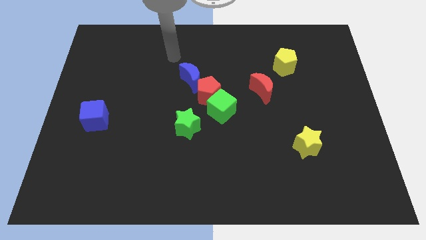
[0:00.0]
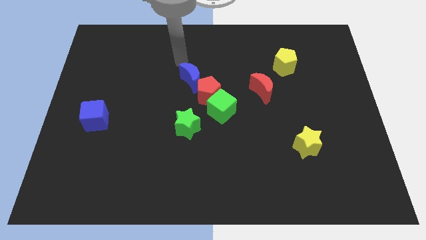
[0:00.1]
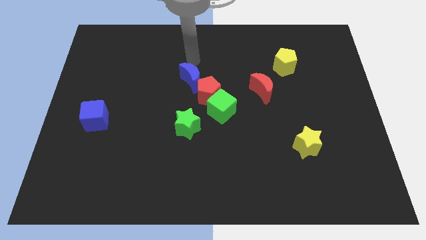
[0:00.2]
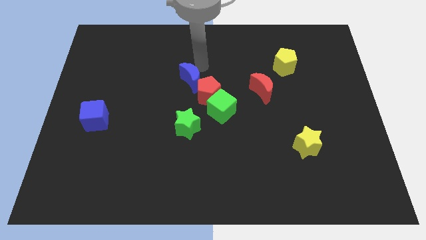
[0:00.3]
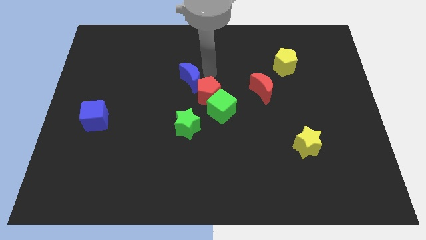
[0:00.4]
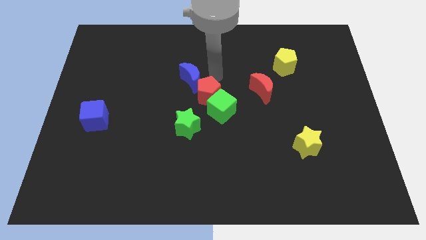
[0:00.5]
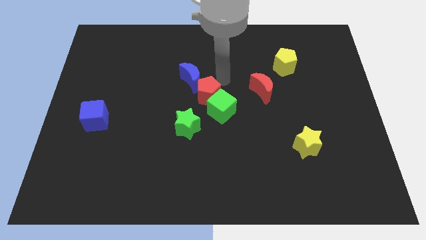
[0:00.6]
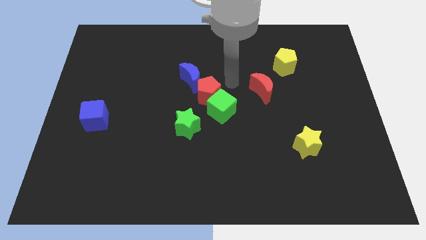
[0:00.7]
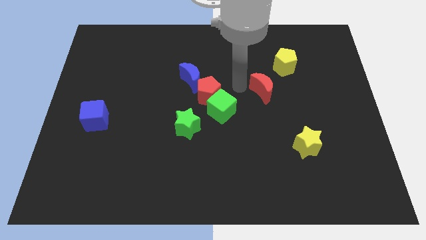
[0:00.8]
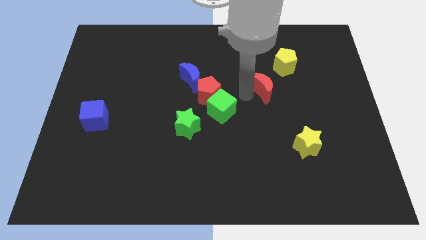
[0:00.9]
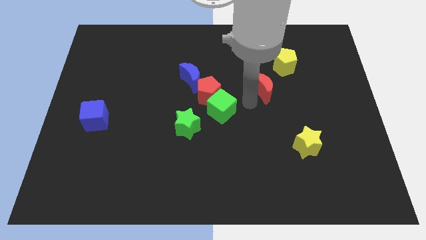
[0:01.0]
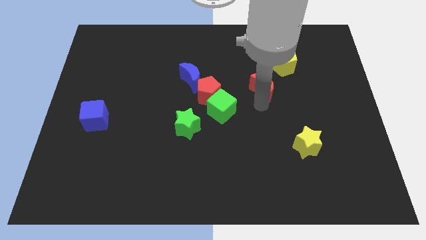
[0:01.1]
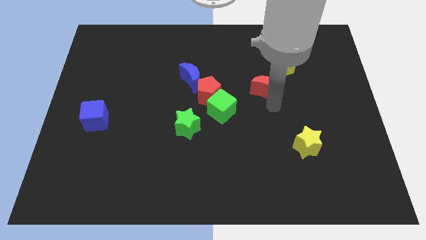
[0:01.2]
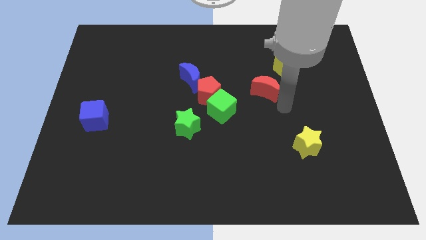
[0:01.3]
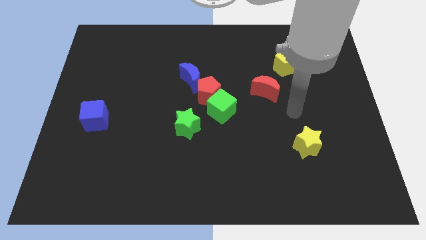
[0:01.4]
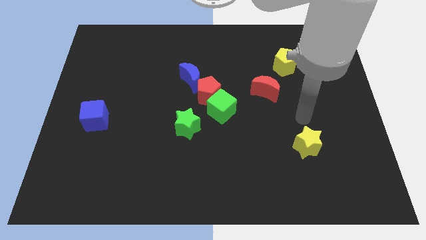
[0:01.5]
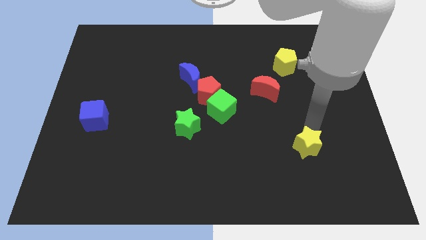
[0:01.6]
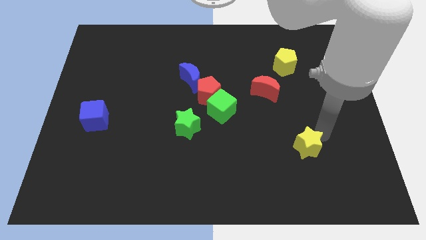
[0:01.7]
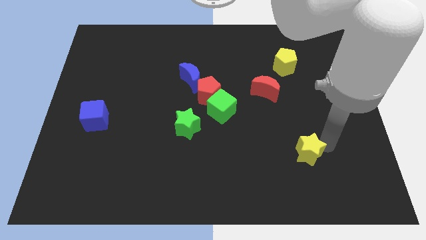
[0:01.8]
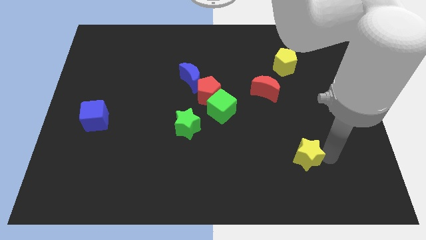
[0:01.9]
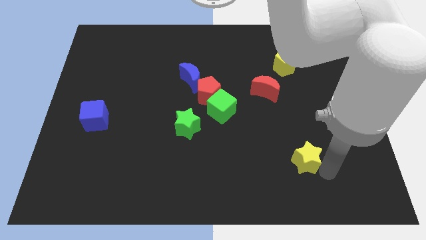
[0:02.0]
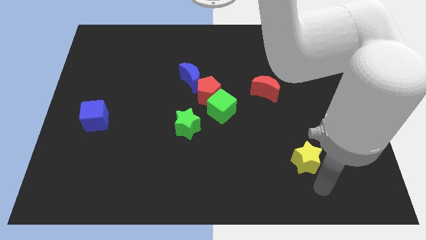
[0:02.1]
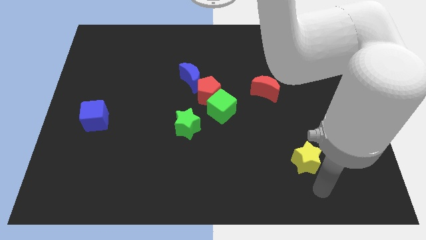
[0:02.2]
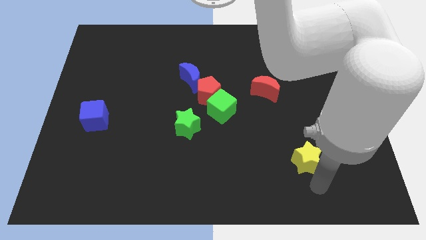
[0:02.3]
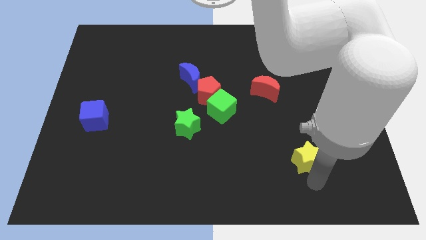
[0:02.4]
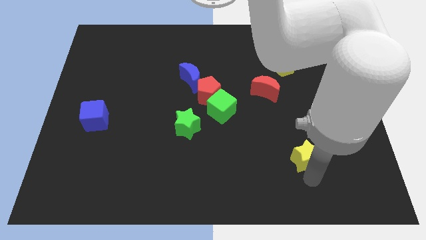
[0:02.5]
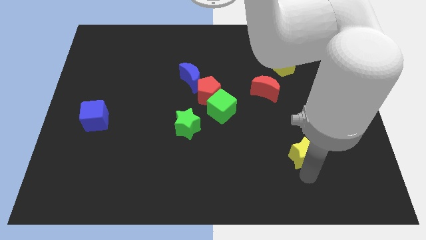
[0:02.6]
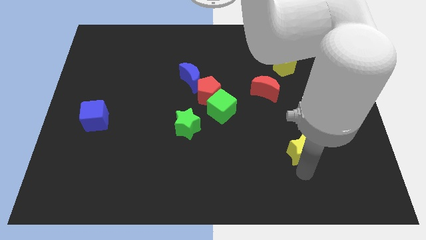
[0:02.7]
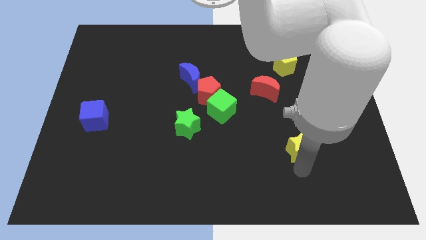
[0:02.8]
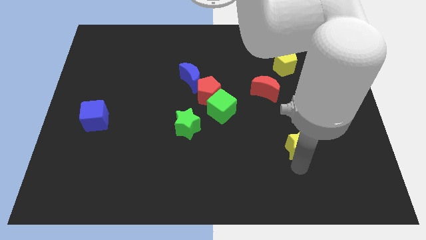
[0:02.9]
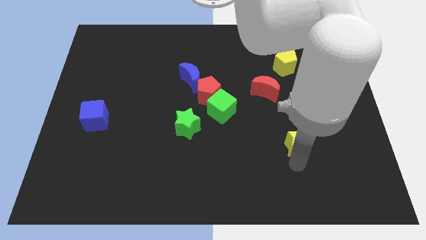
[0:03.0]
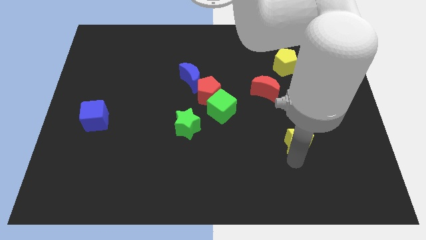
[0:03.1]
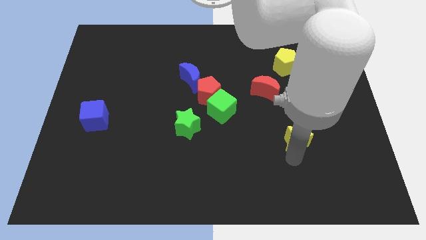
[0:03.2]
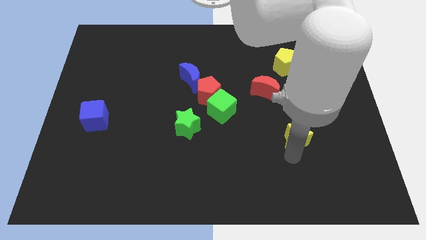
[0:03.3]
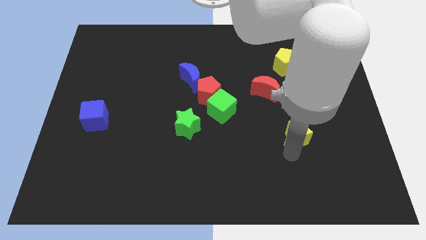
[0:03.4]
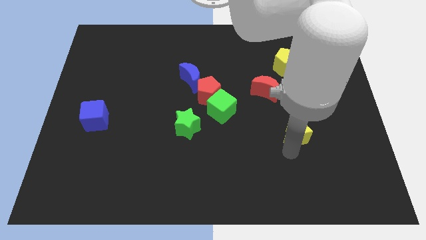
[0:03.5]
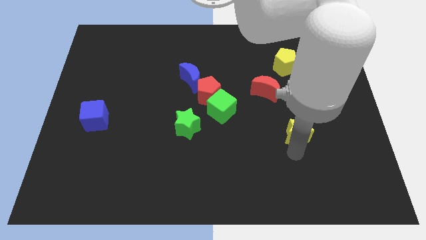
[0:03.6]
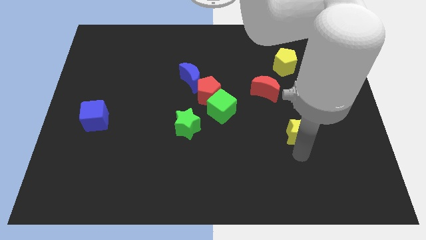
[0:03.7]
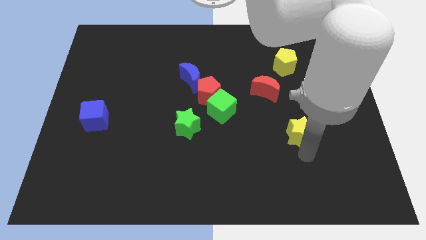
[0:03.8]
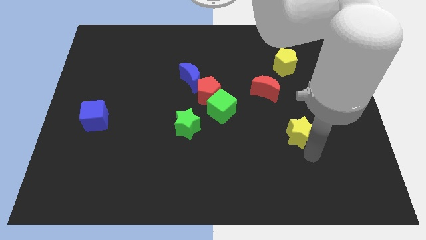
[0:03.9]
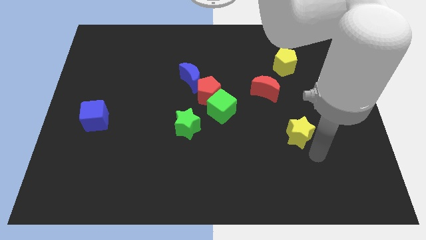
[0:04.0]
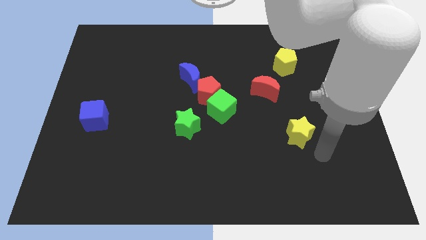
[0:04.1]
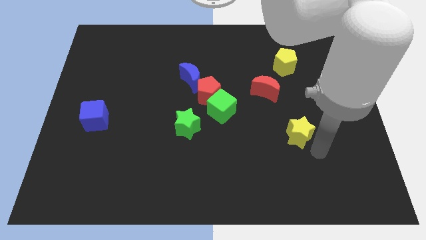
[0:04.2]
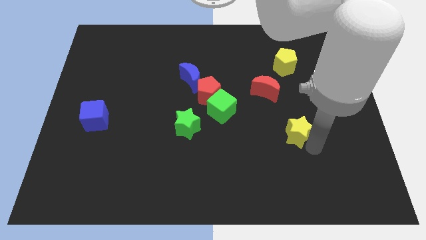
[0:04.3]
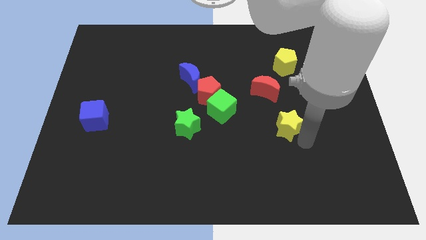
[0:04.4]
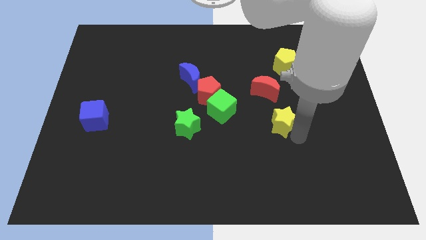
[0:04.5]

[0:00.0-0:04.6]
slightly move the yellow star up and then left

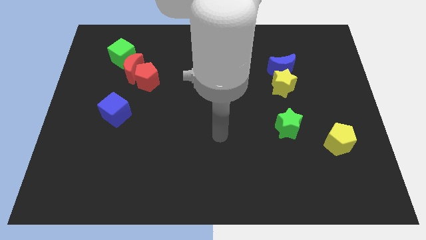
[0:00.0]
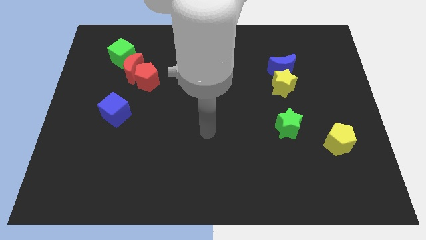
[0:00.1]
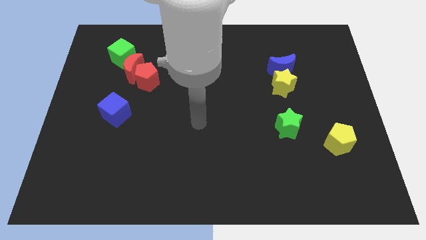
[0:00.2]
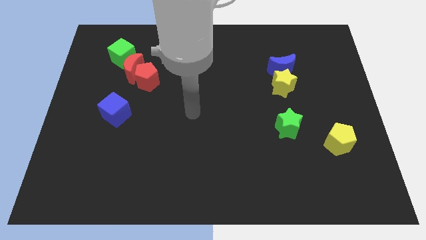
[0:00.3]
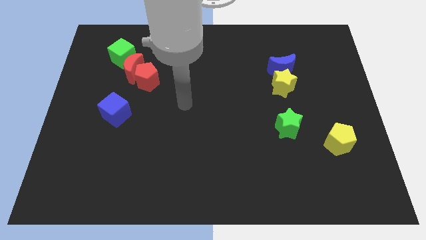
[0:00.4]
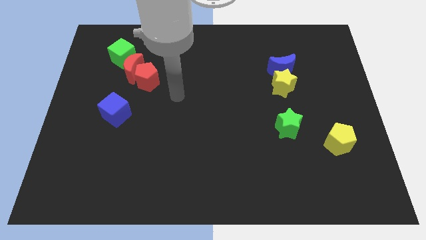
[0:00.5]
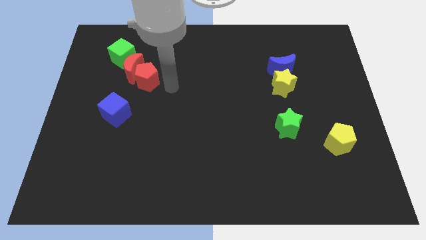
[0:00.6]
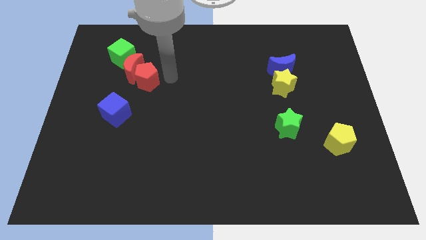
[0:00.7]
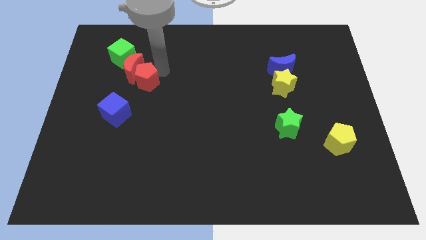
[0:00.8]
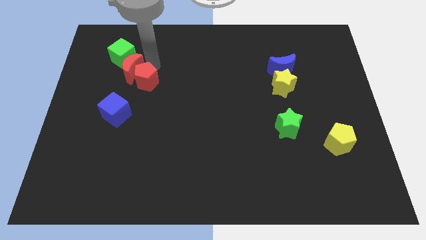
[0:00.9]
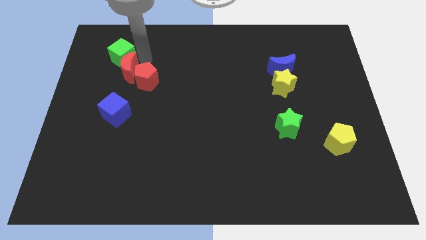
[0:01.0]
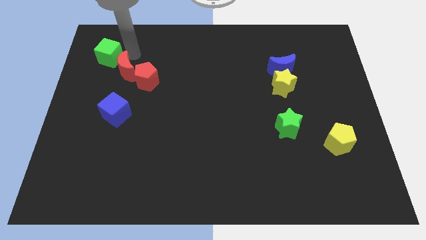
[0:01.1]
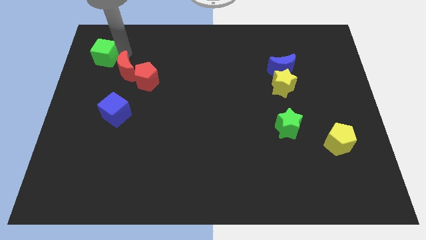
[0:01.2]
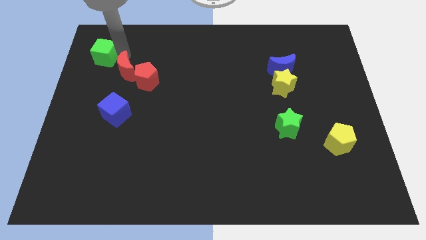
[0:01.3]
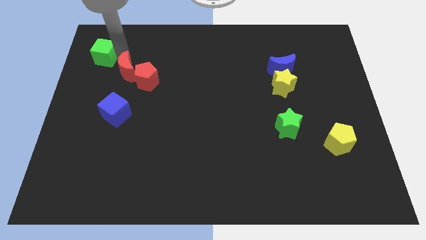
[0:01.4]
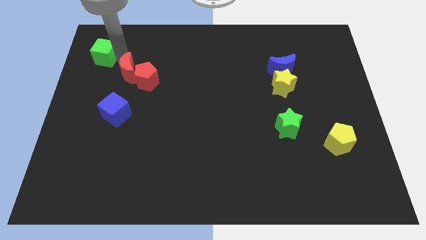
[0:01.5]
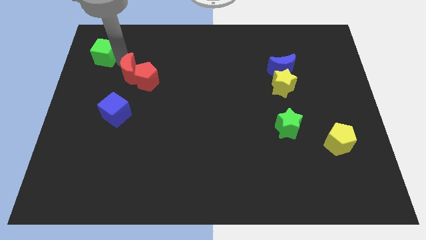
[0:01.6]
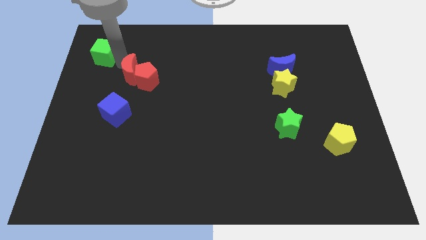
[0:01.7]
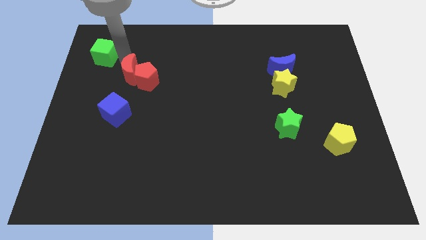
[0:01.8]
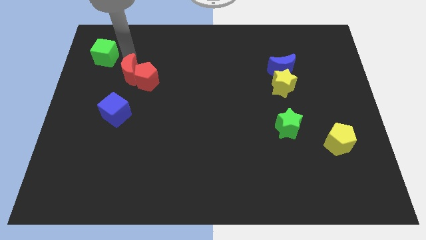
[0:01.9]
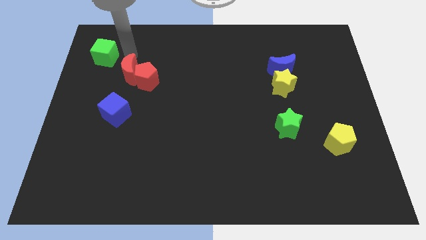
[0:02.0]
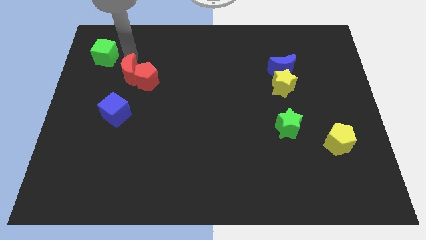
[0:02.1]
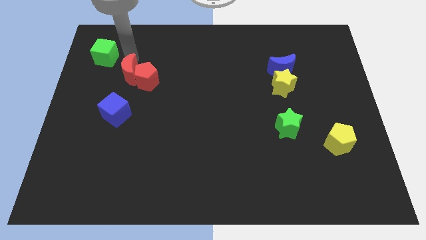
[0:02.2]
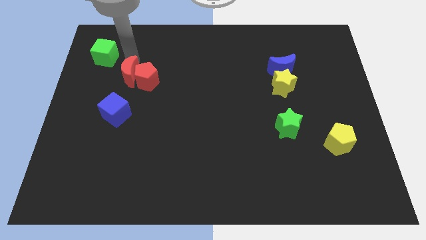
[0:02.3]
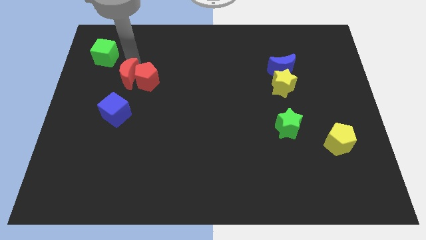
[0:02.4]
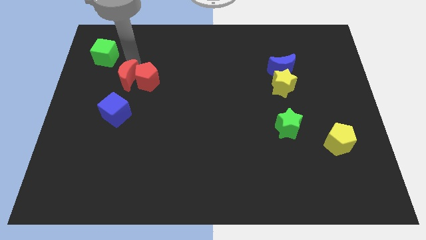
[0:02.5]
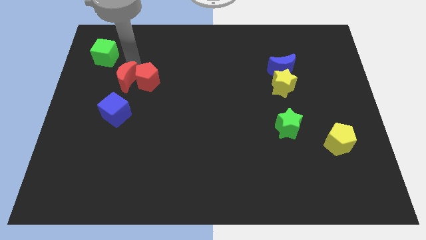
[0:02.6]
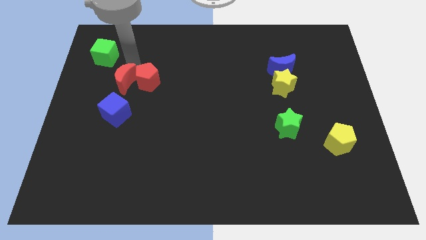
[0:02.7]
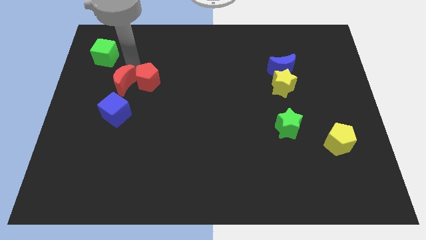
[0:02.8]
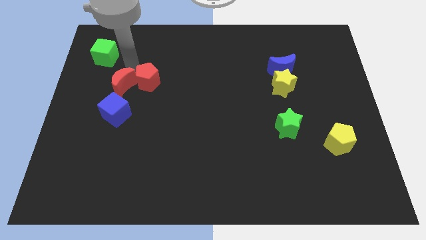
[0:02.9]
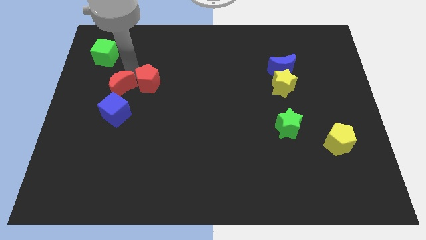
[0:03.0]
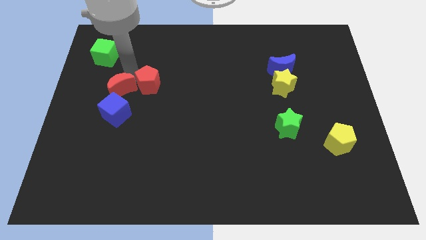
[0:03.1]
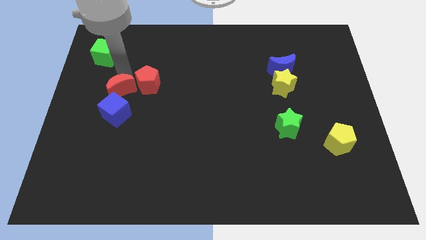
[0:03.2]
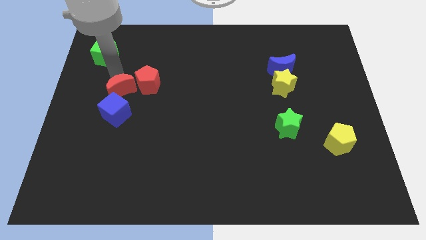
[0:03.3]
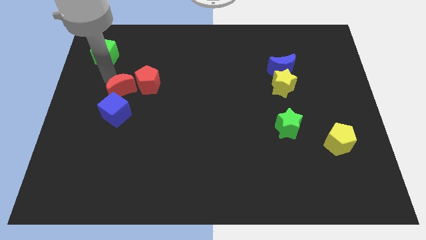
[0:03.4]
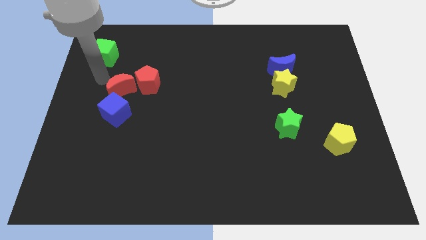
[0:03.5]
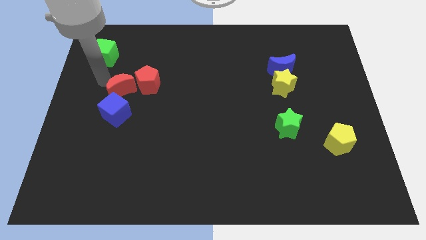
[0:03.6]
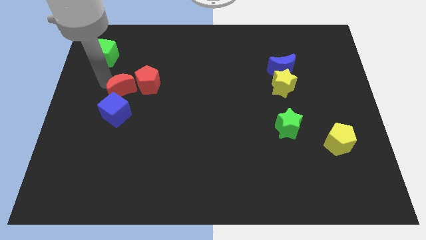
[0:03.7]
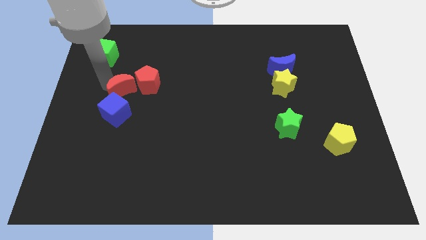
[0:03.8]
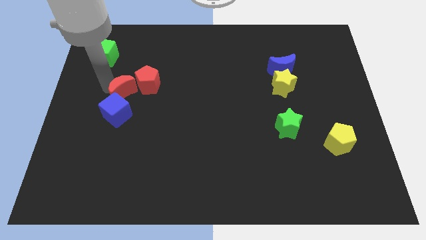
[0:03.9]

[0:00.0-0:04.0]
move the red moon a bit down

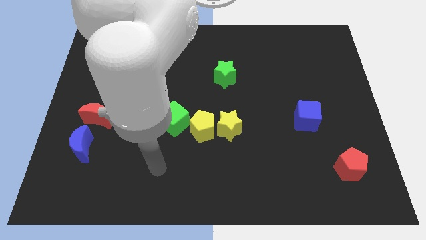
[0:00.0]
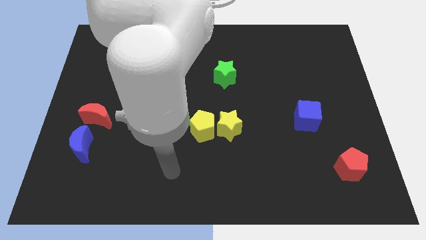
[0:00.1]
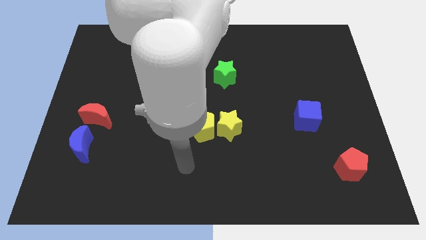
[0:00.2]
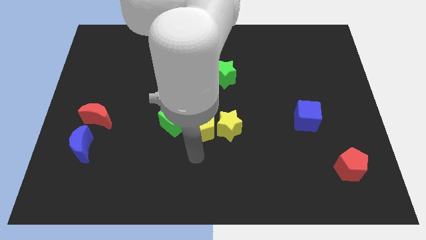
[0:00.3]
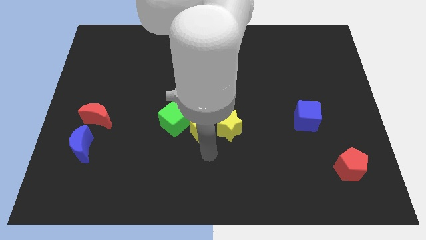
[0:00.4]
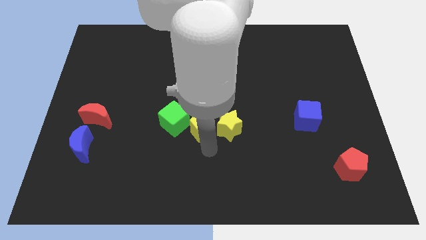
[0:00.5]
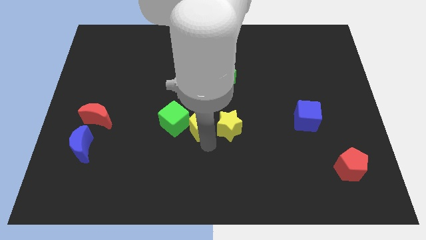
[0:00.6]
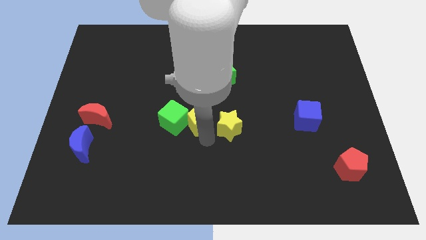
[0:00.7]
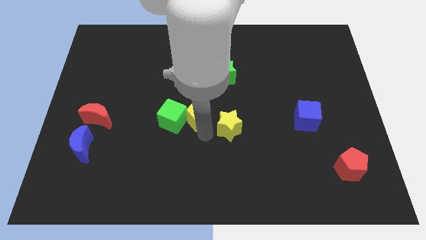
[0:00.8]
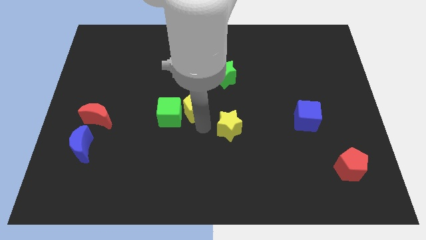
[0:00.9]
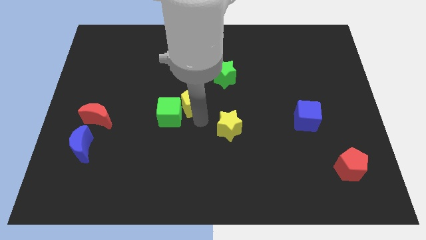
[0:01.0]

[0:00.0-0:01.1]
slightly slide the yellow pentagon upwards
